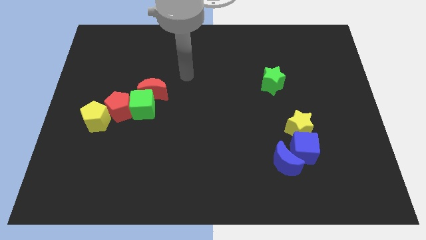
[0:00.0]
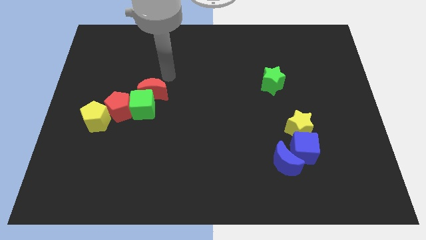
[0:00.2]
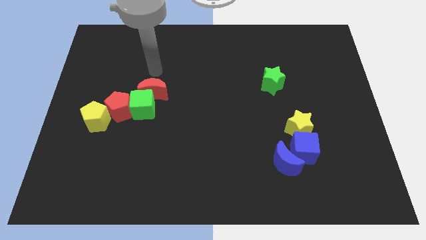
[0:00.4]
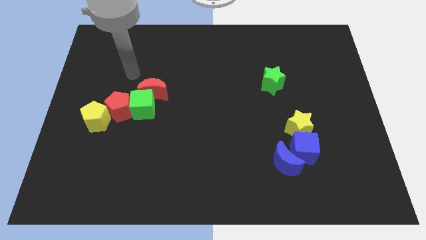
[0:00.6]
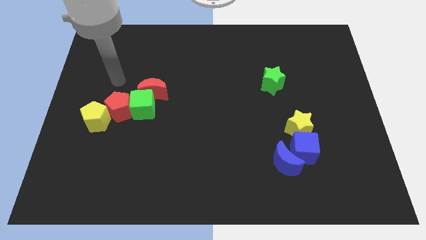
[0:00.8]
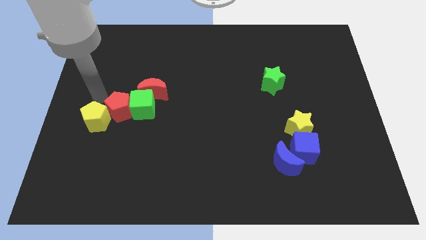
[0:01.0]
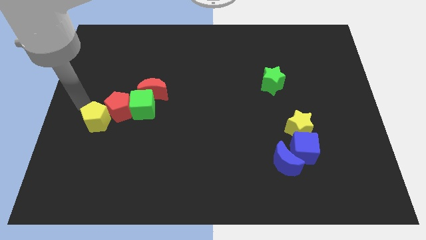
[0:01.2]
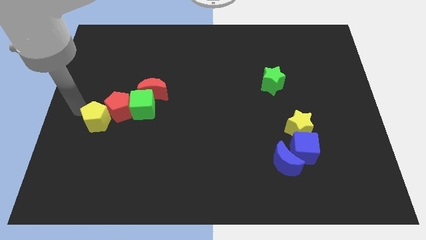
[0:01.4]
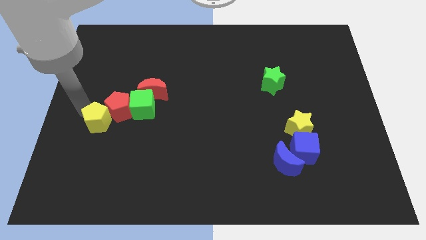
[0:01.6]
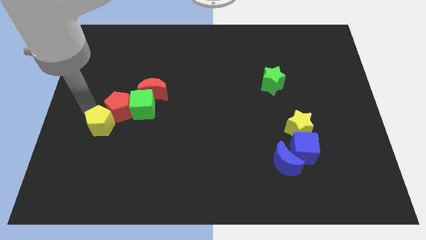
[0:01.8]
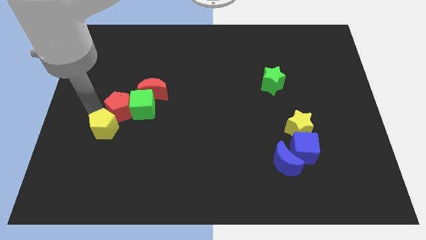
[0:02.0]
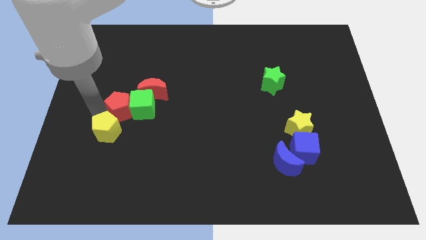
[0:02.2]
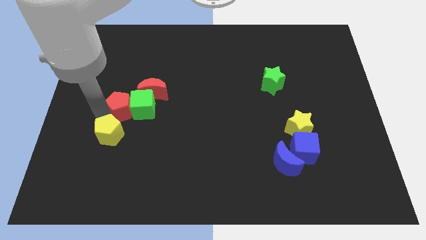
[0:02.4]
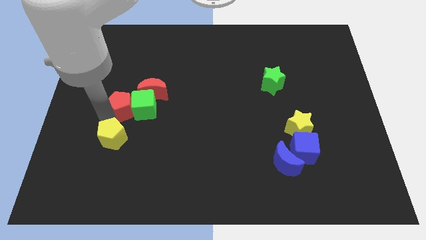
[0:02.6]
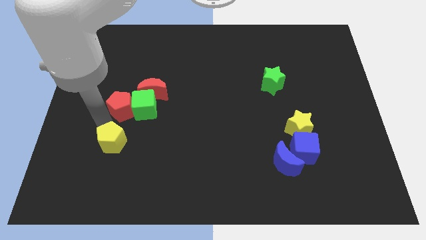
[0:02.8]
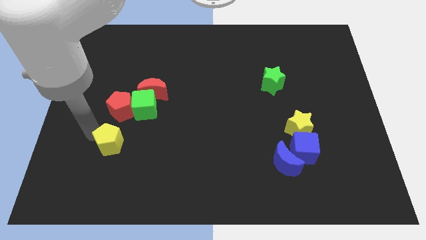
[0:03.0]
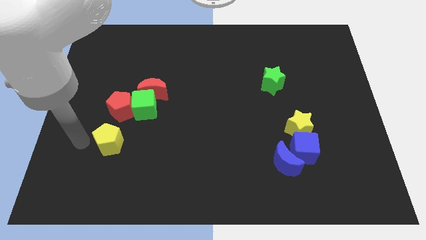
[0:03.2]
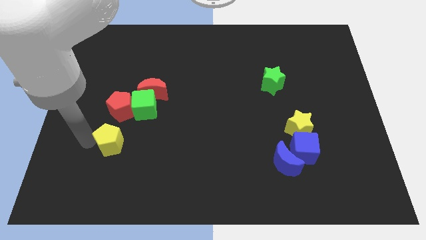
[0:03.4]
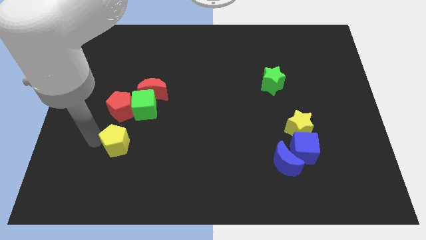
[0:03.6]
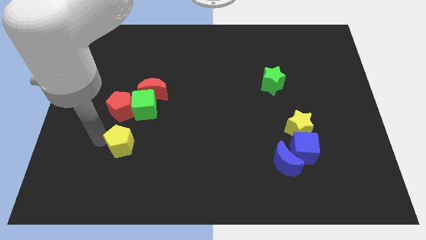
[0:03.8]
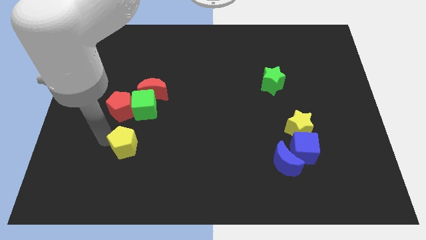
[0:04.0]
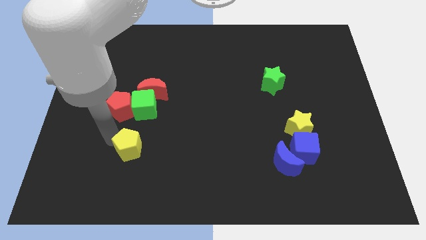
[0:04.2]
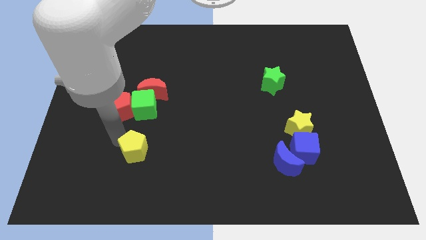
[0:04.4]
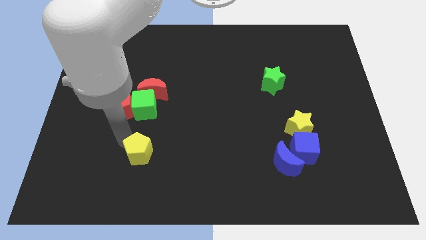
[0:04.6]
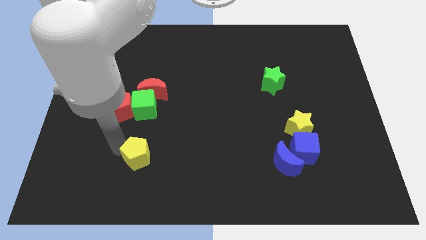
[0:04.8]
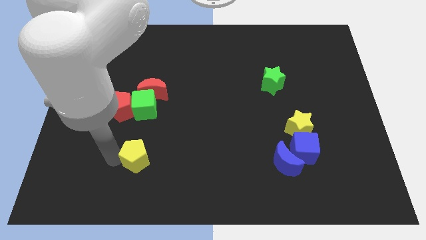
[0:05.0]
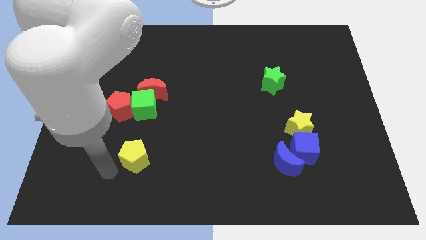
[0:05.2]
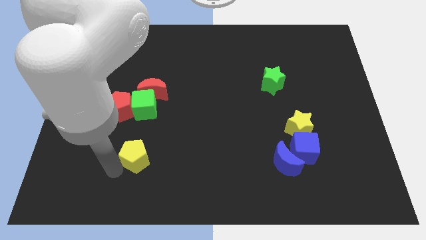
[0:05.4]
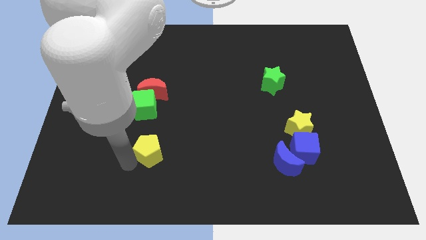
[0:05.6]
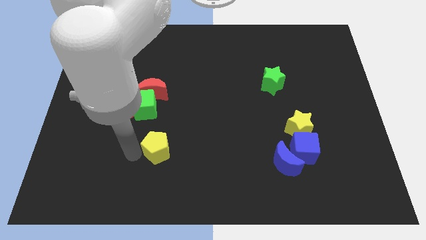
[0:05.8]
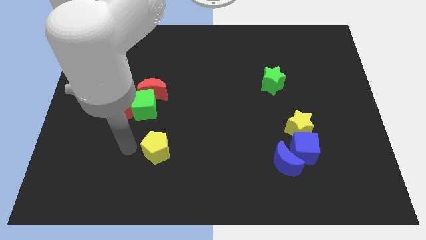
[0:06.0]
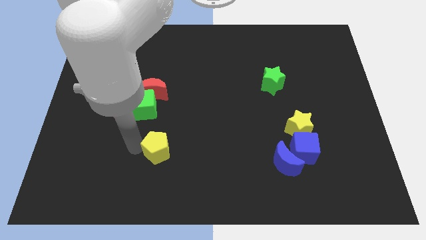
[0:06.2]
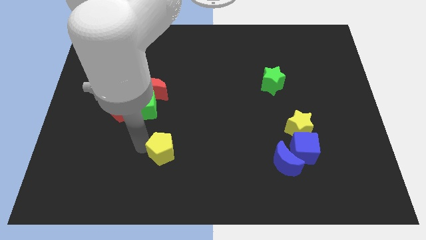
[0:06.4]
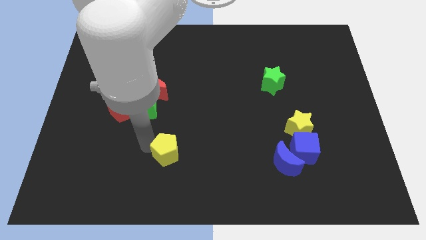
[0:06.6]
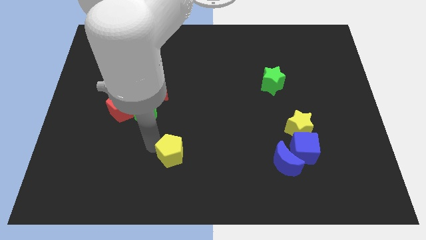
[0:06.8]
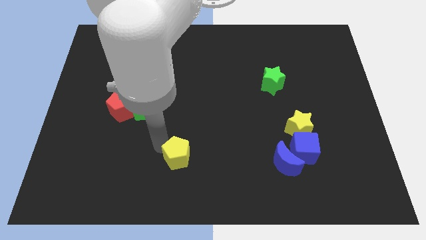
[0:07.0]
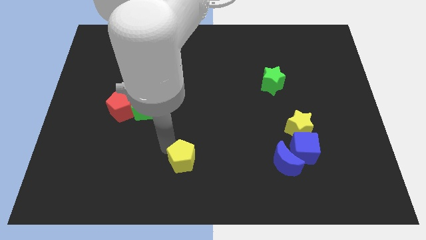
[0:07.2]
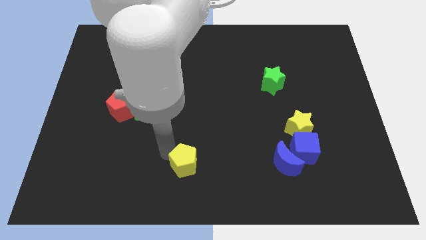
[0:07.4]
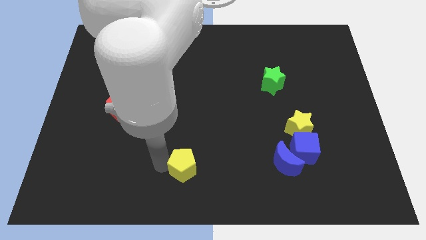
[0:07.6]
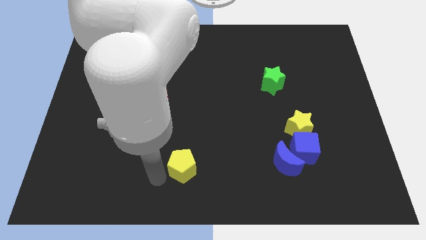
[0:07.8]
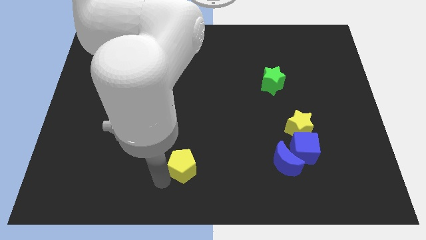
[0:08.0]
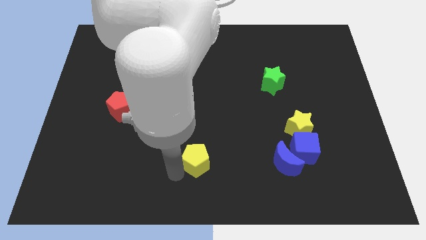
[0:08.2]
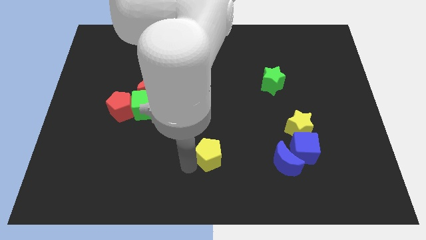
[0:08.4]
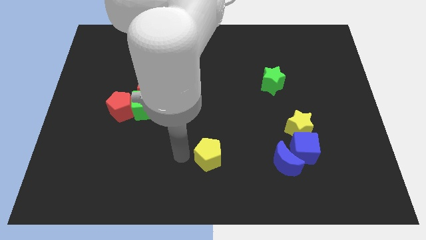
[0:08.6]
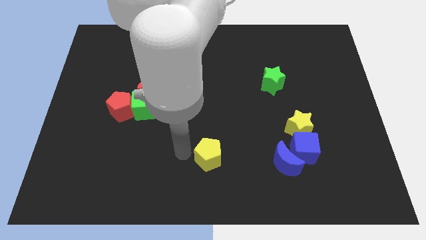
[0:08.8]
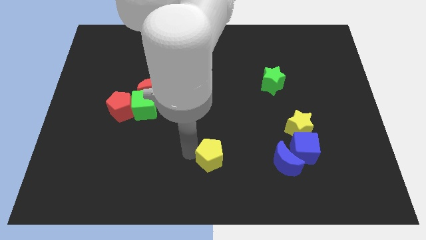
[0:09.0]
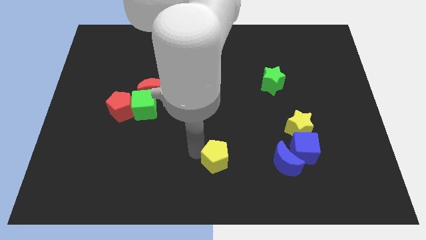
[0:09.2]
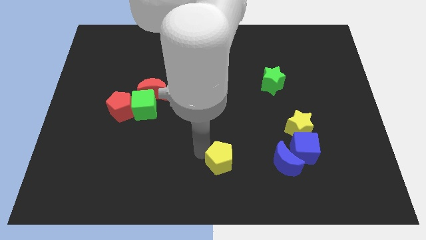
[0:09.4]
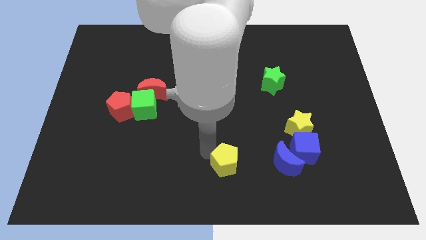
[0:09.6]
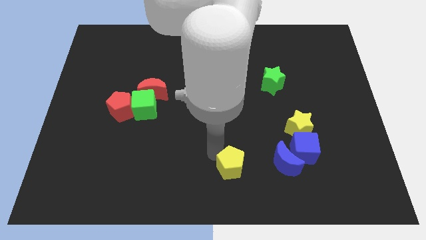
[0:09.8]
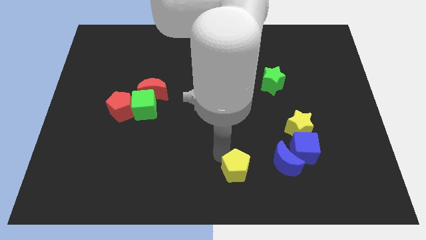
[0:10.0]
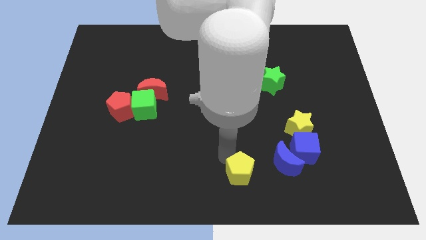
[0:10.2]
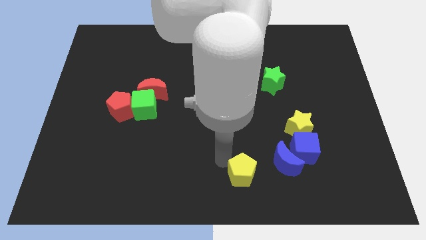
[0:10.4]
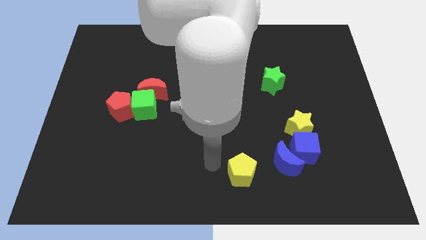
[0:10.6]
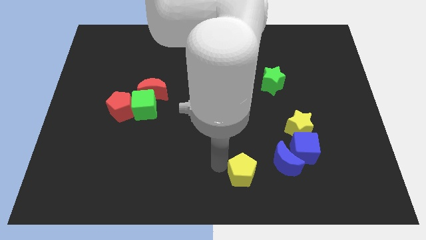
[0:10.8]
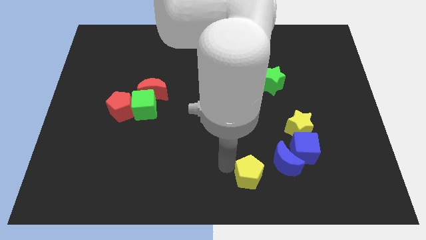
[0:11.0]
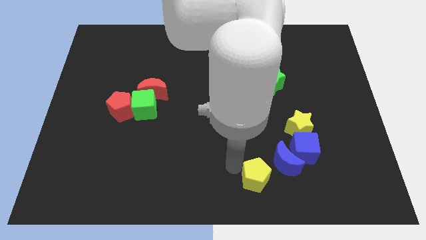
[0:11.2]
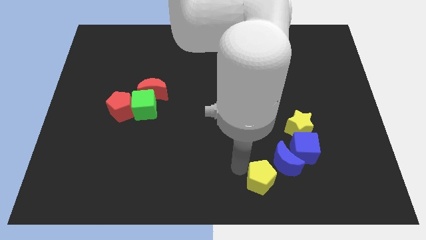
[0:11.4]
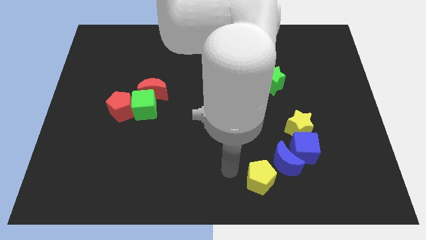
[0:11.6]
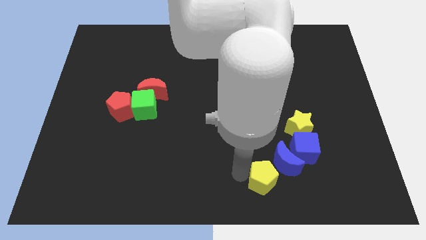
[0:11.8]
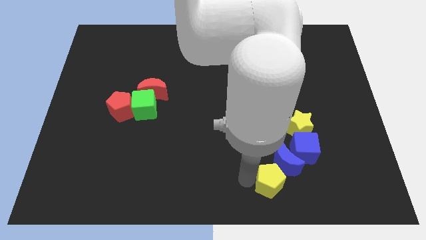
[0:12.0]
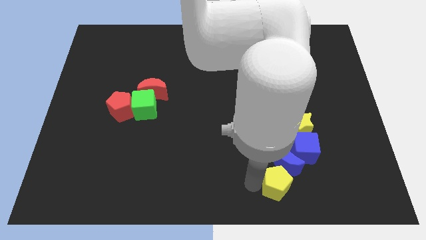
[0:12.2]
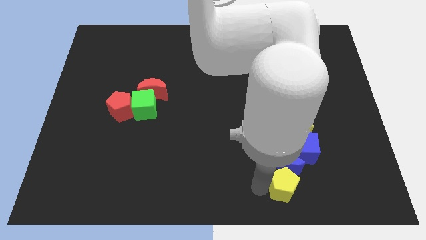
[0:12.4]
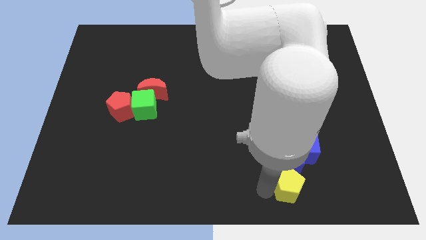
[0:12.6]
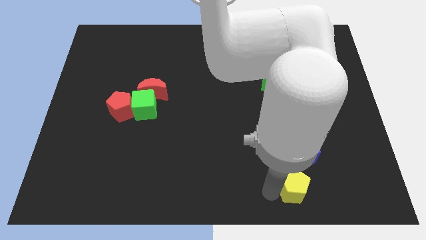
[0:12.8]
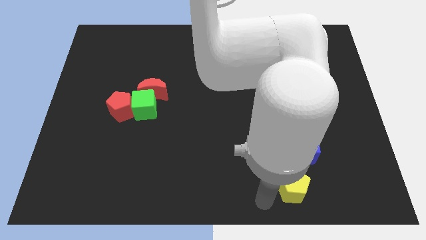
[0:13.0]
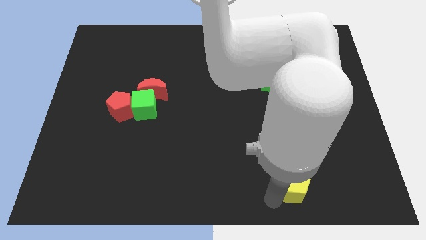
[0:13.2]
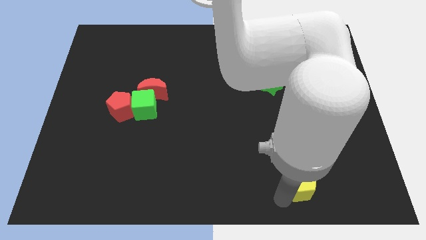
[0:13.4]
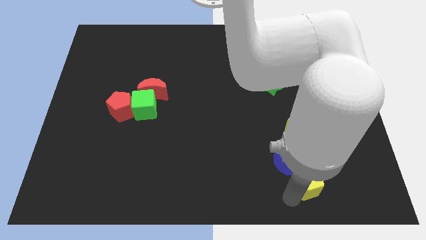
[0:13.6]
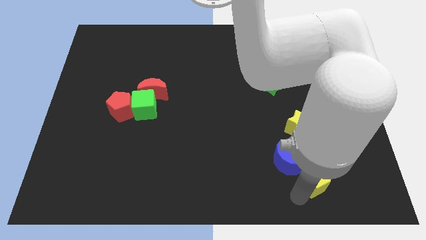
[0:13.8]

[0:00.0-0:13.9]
push the yellow pentagon to the bottom right side of the blue cube
